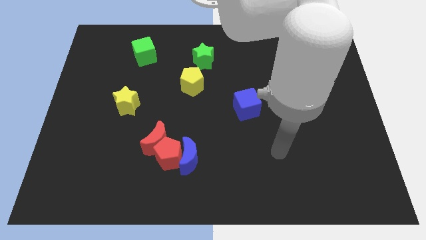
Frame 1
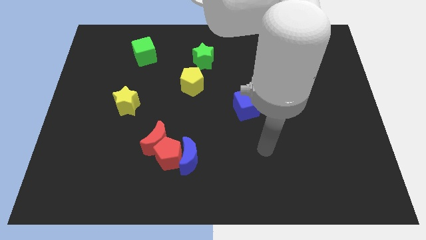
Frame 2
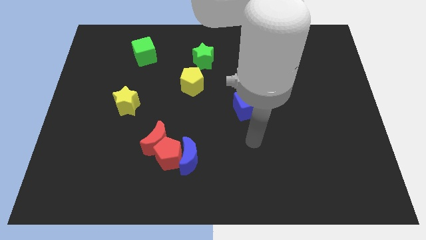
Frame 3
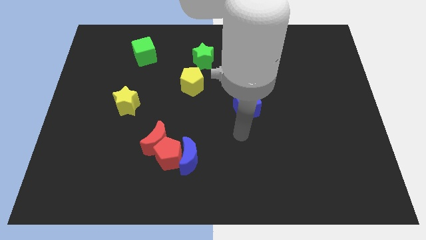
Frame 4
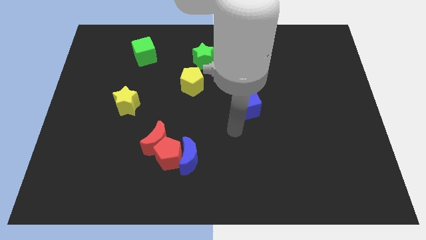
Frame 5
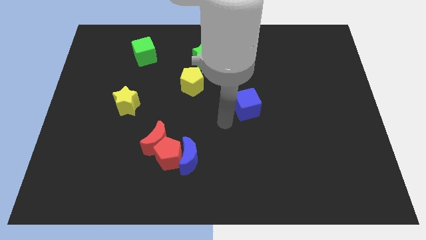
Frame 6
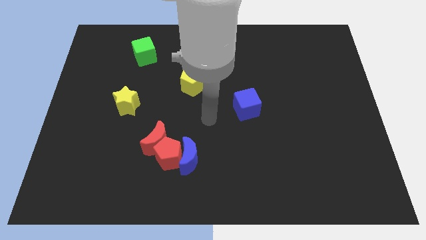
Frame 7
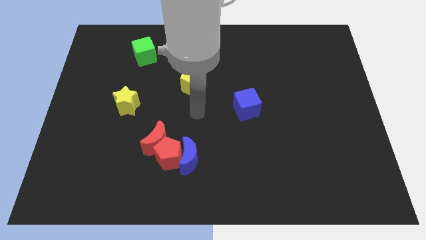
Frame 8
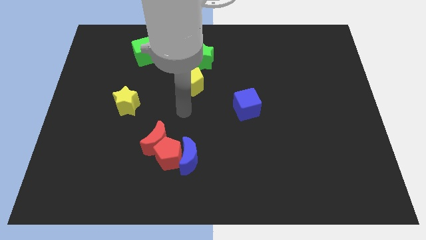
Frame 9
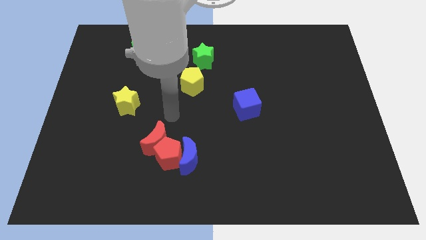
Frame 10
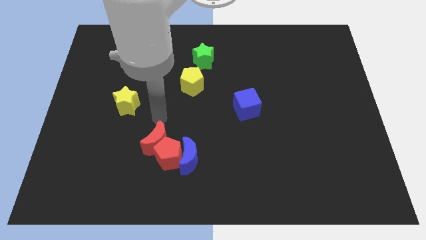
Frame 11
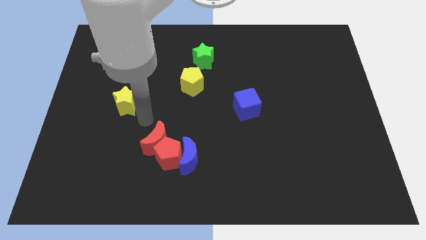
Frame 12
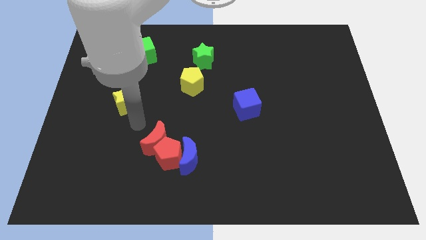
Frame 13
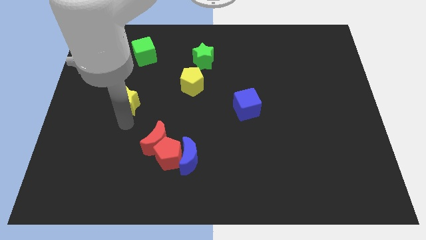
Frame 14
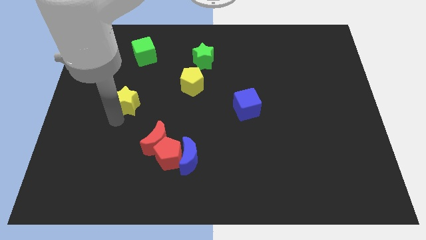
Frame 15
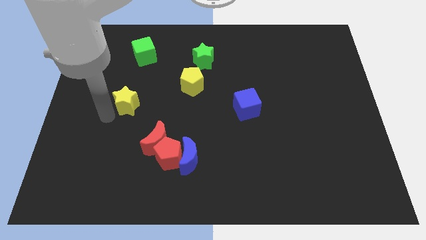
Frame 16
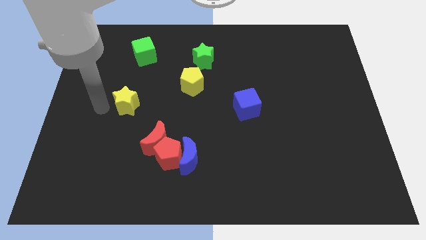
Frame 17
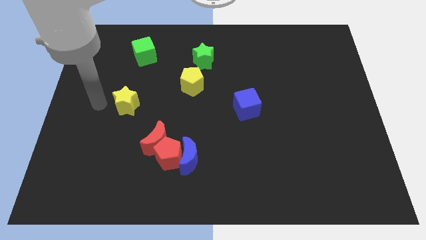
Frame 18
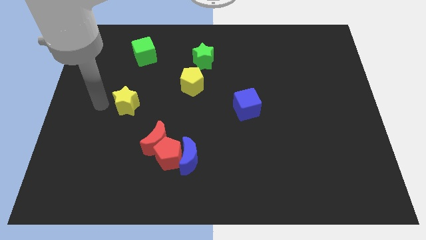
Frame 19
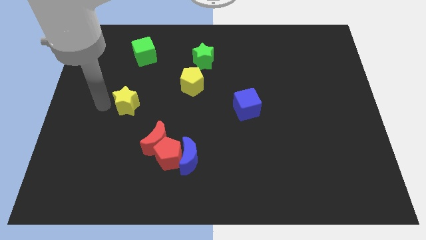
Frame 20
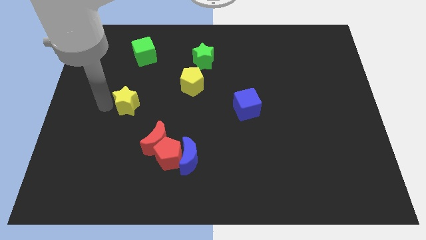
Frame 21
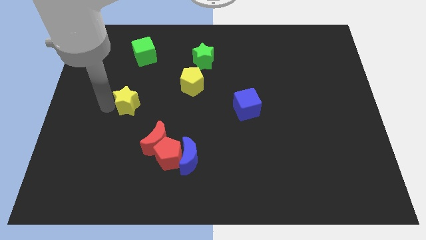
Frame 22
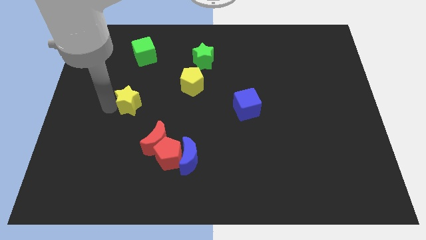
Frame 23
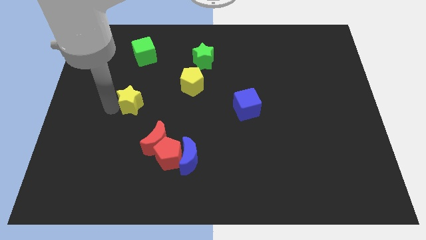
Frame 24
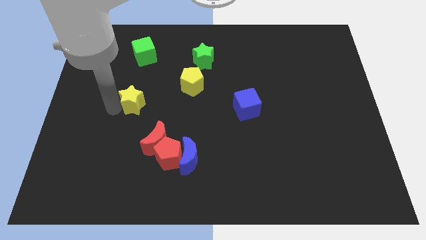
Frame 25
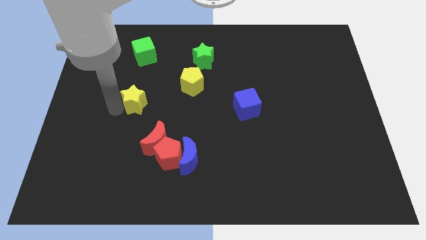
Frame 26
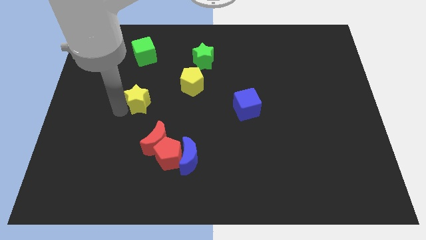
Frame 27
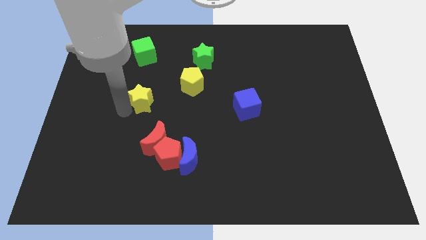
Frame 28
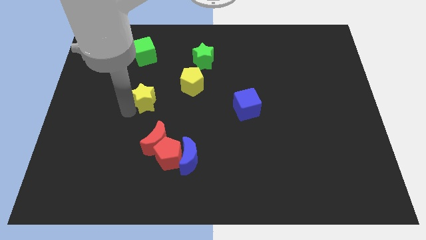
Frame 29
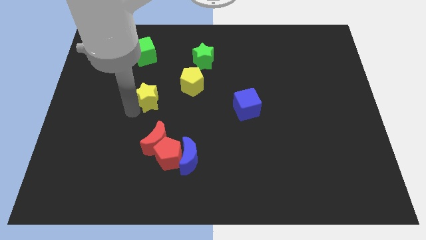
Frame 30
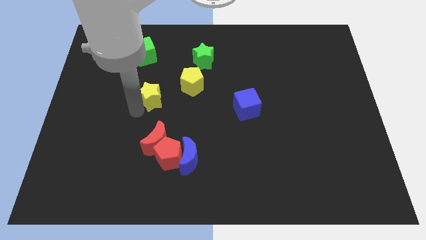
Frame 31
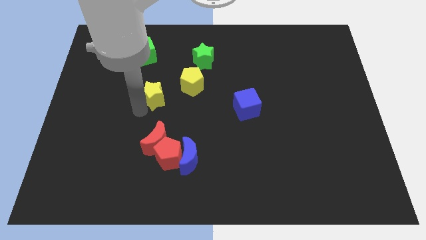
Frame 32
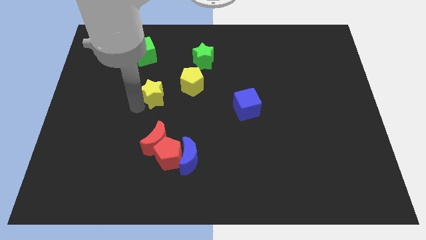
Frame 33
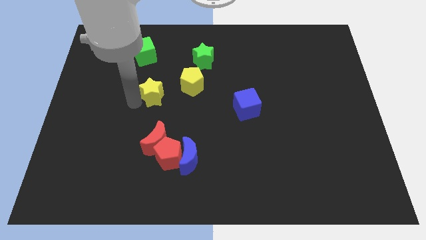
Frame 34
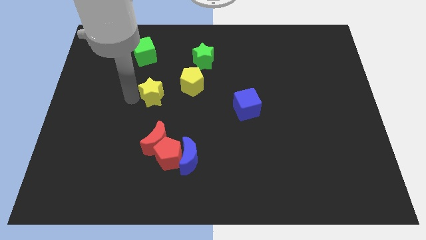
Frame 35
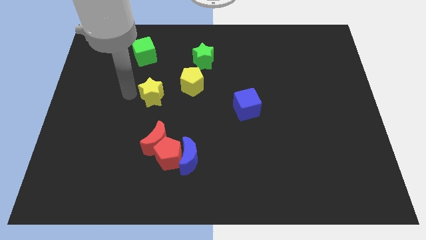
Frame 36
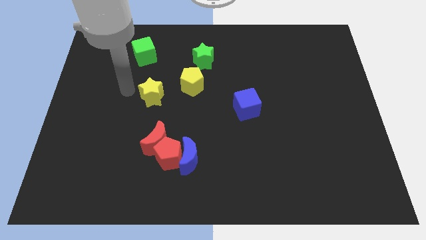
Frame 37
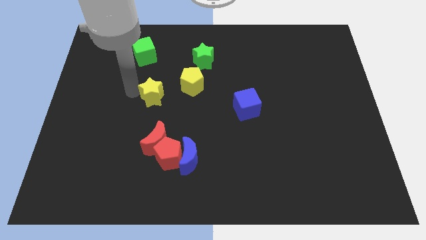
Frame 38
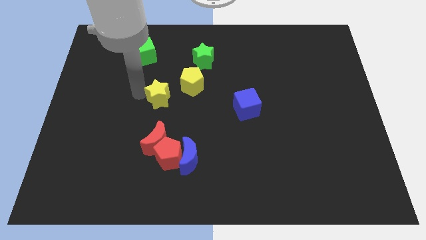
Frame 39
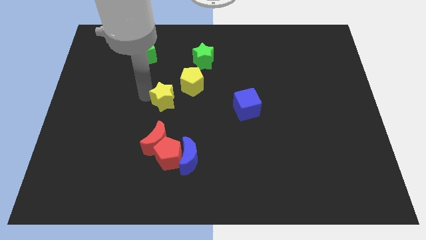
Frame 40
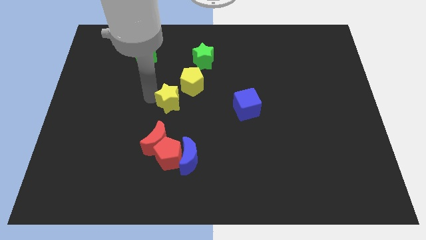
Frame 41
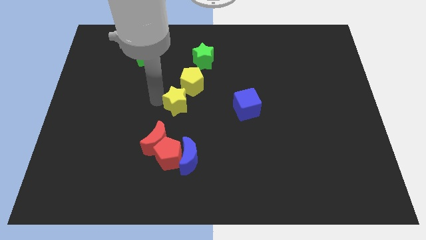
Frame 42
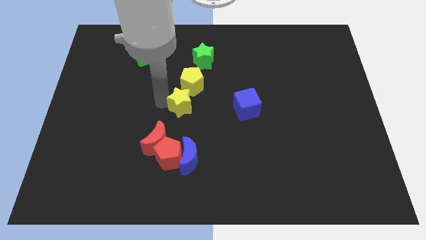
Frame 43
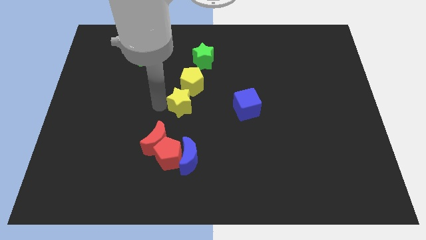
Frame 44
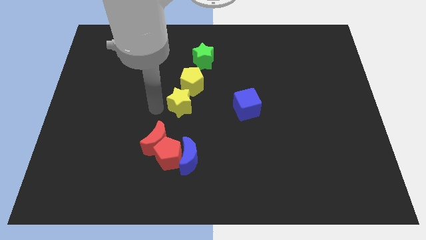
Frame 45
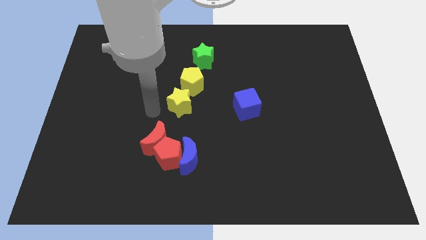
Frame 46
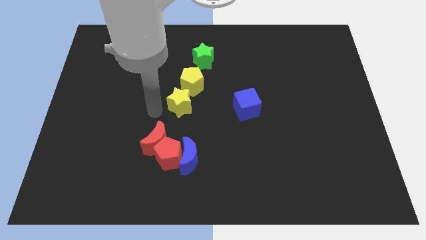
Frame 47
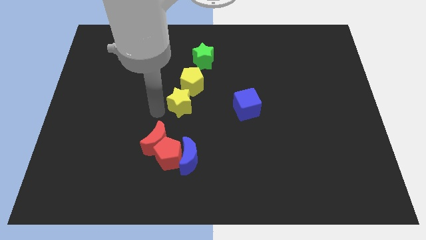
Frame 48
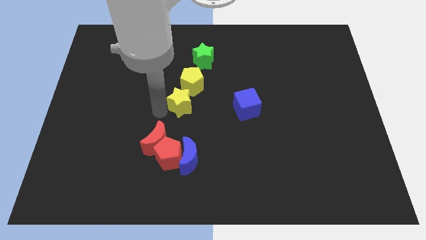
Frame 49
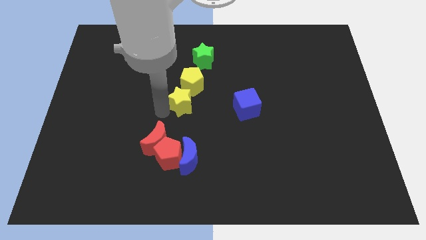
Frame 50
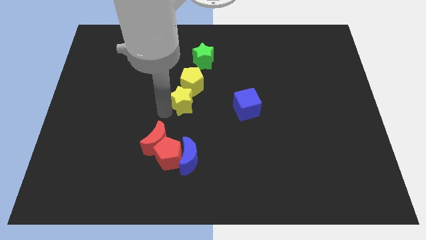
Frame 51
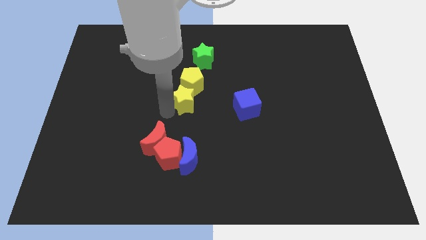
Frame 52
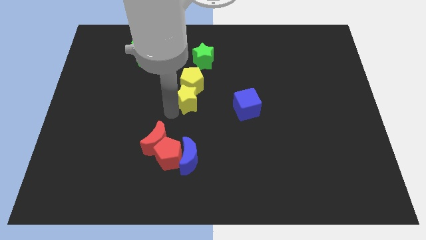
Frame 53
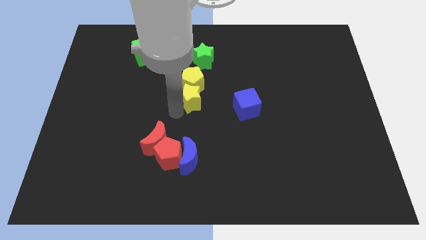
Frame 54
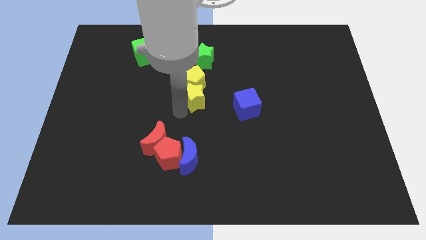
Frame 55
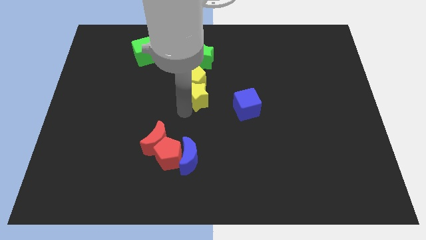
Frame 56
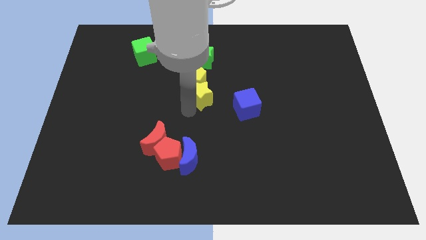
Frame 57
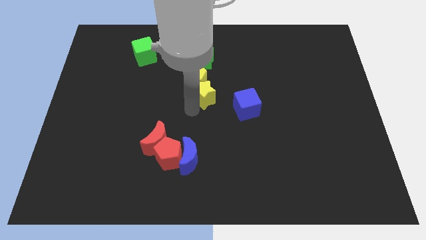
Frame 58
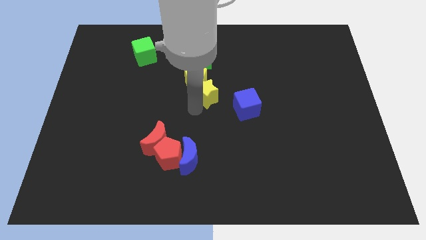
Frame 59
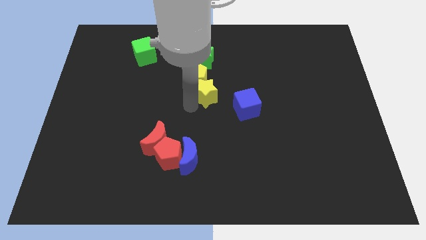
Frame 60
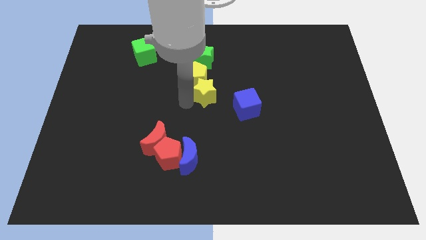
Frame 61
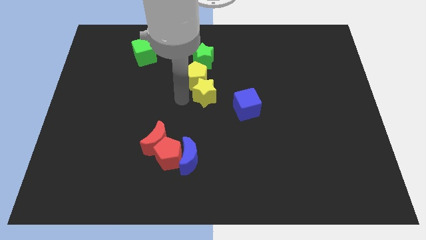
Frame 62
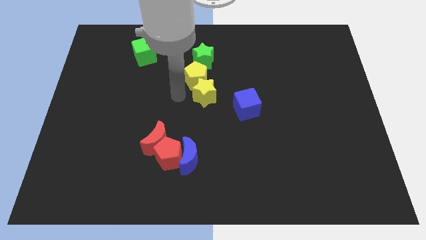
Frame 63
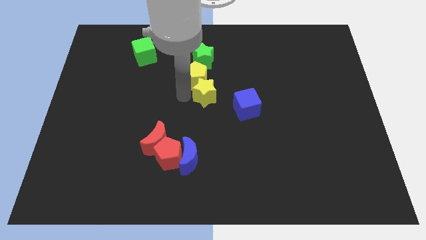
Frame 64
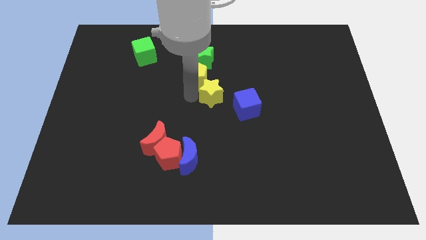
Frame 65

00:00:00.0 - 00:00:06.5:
push the yellow star to the right

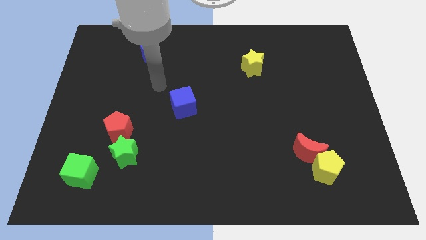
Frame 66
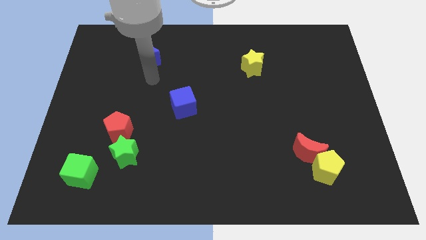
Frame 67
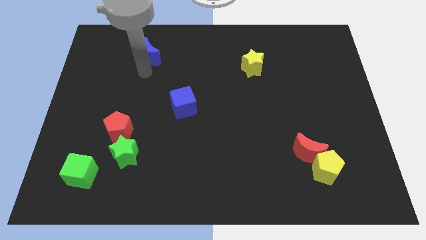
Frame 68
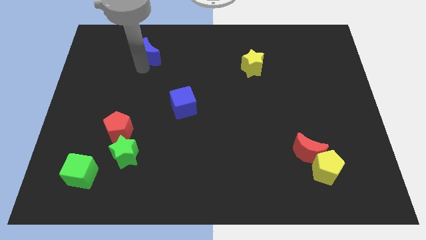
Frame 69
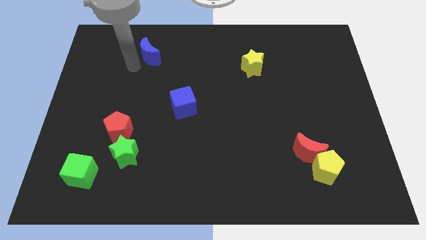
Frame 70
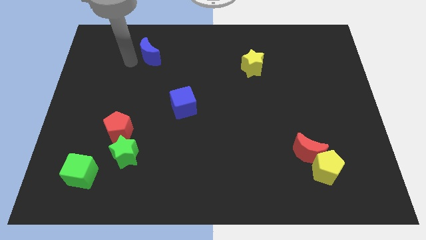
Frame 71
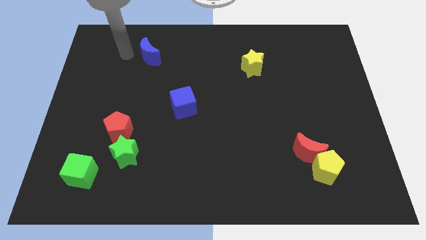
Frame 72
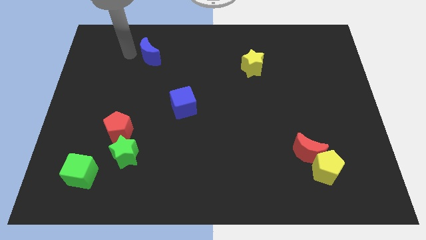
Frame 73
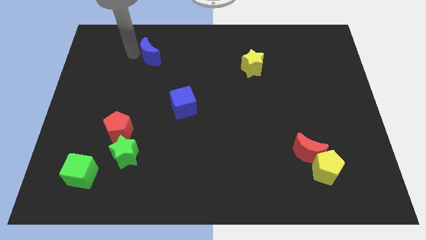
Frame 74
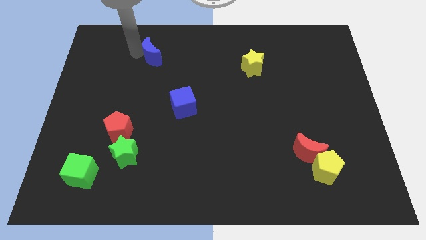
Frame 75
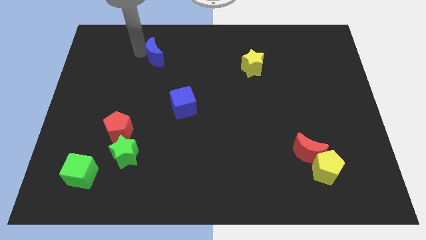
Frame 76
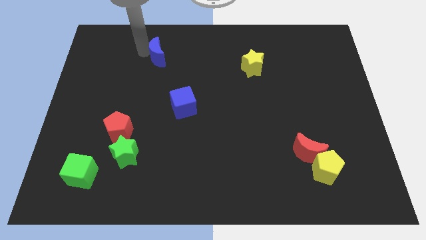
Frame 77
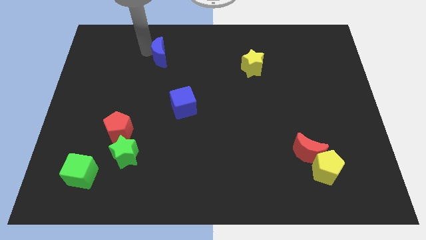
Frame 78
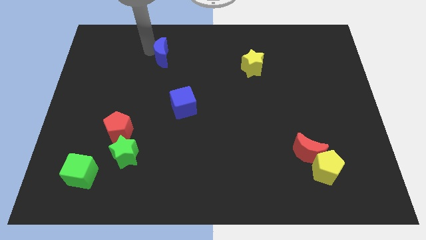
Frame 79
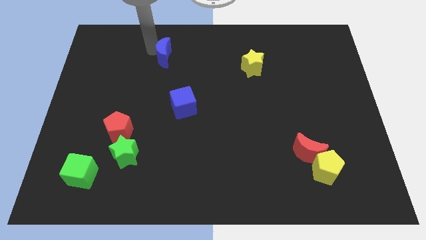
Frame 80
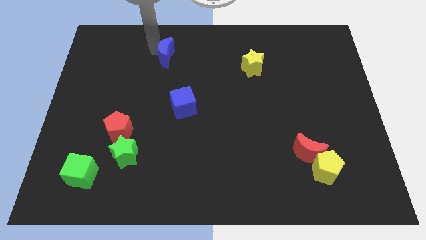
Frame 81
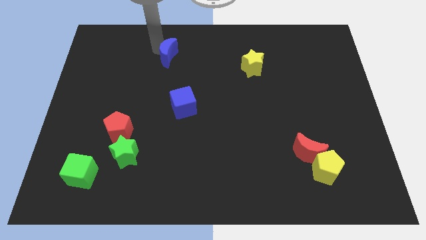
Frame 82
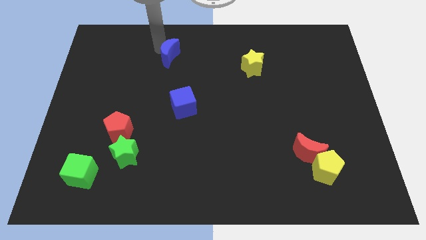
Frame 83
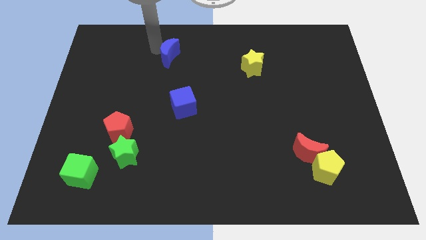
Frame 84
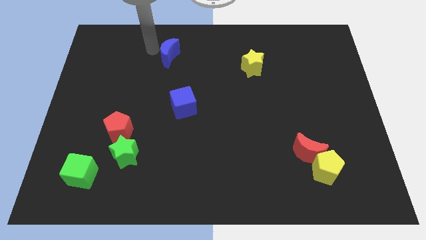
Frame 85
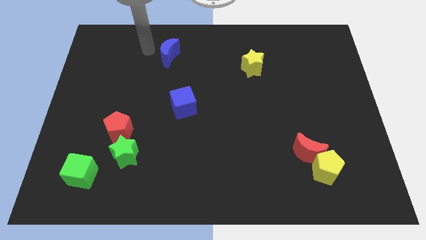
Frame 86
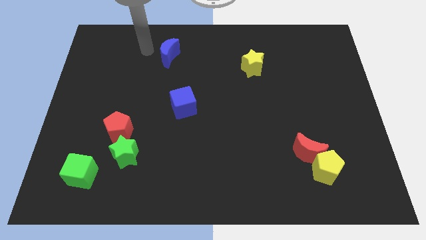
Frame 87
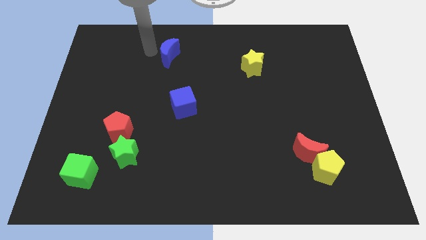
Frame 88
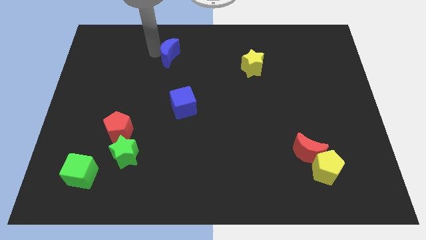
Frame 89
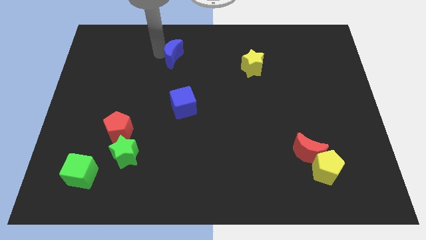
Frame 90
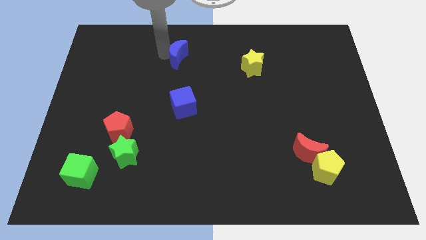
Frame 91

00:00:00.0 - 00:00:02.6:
slide the blue moon right a little bit
